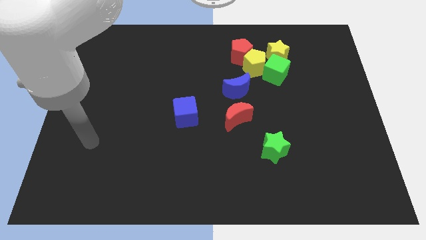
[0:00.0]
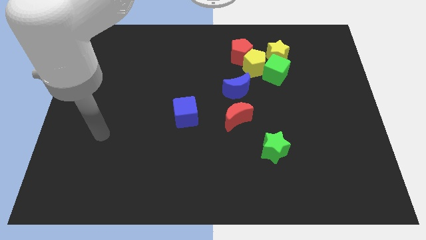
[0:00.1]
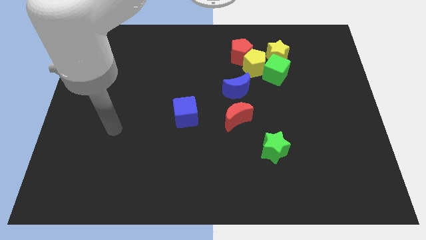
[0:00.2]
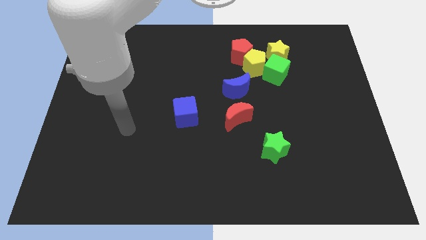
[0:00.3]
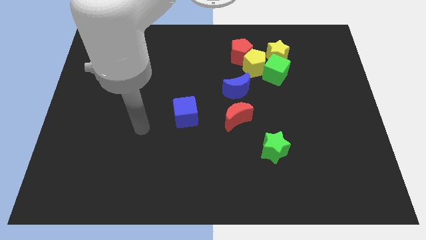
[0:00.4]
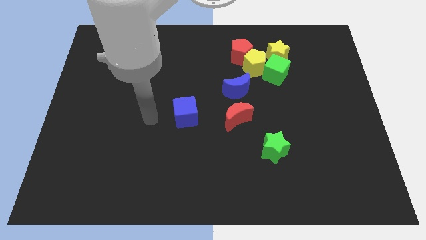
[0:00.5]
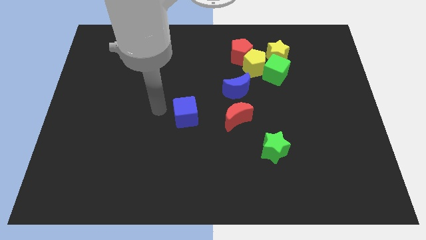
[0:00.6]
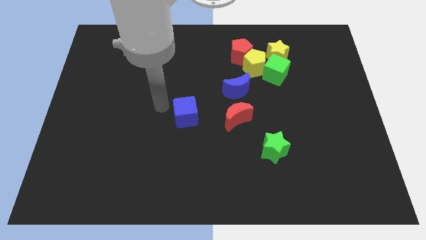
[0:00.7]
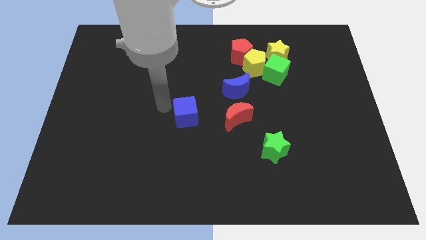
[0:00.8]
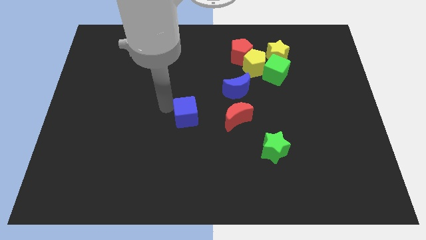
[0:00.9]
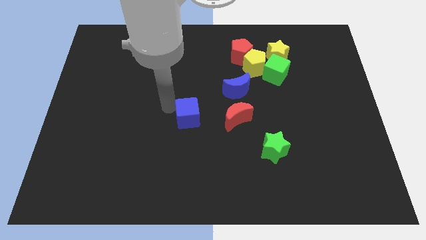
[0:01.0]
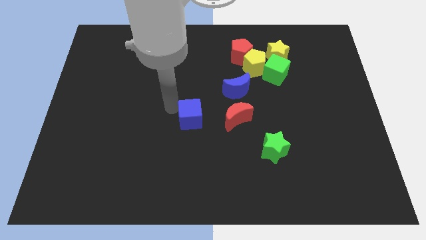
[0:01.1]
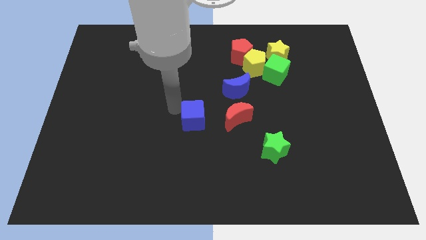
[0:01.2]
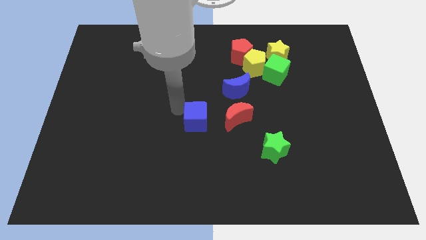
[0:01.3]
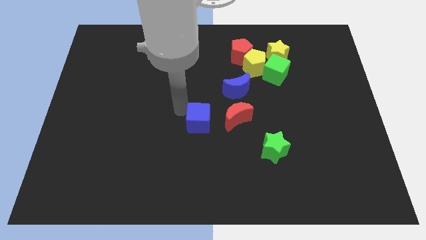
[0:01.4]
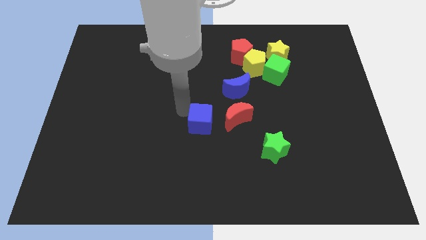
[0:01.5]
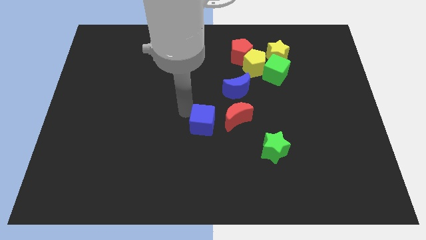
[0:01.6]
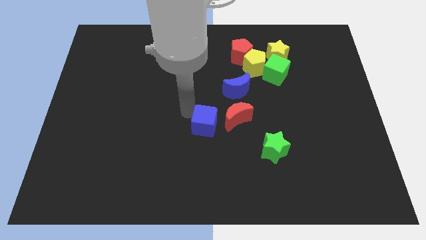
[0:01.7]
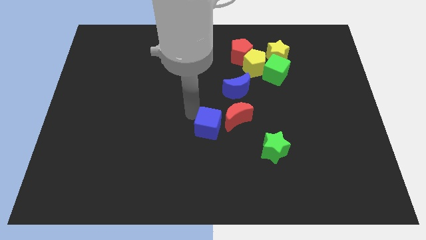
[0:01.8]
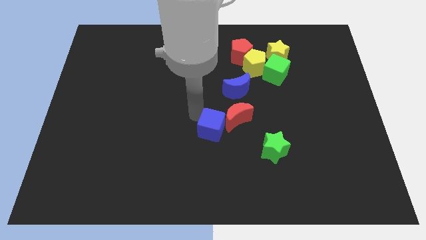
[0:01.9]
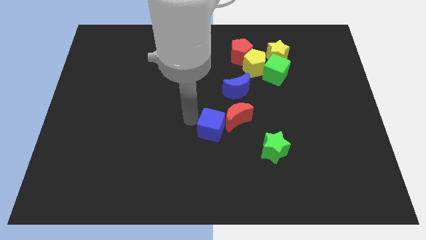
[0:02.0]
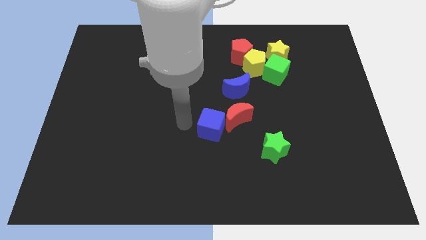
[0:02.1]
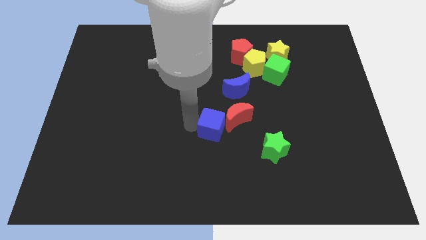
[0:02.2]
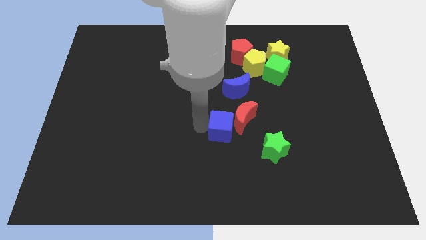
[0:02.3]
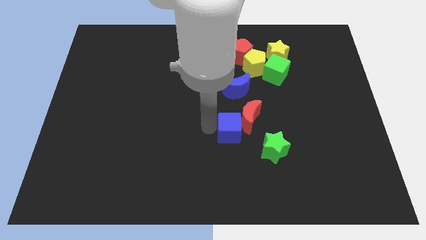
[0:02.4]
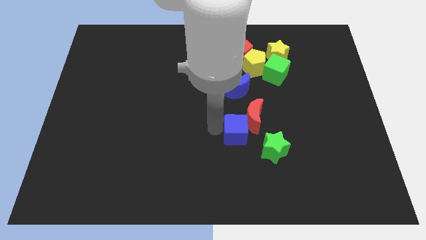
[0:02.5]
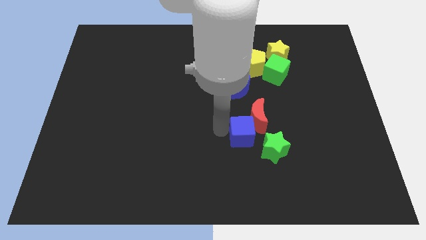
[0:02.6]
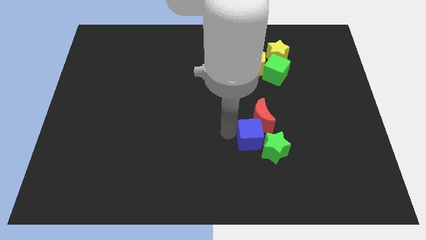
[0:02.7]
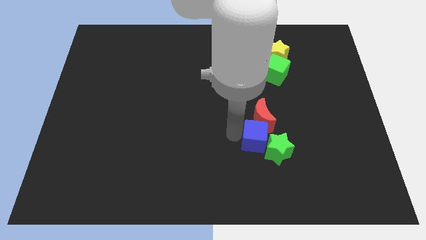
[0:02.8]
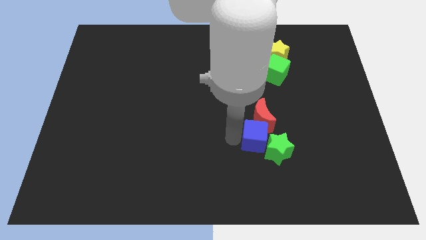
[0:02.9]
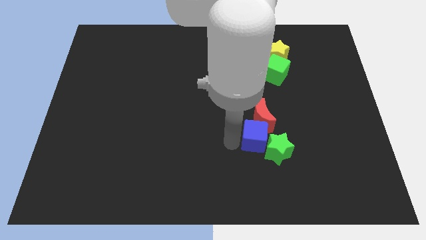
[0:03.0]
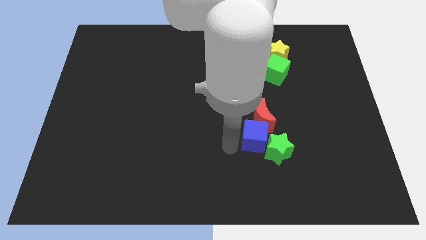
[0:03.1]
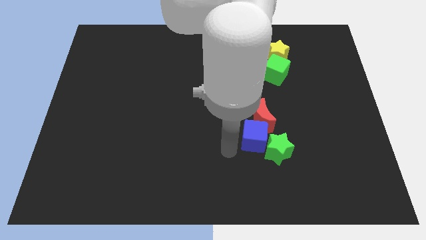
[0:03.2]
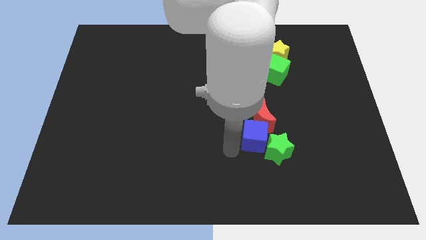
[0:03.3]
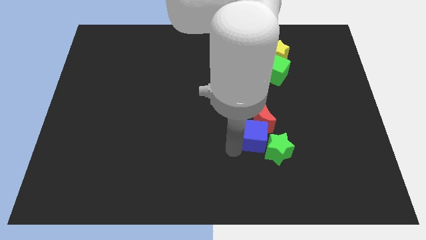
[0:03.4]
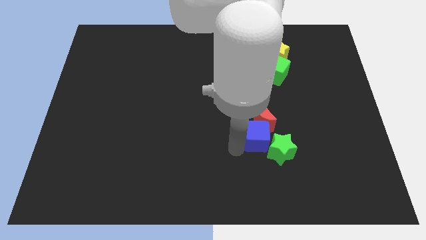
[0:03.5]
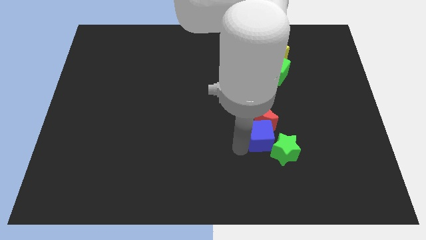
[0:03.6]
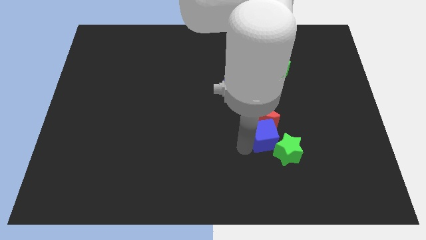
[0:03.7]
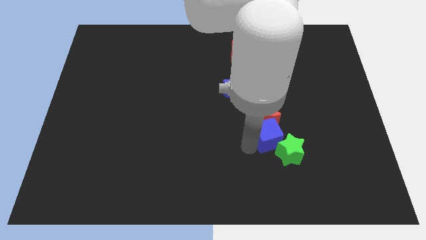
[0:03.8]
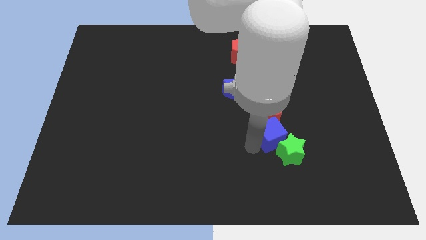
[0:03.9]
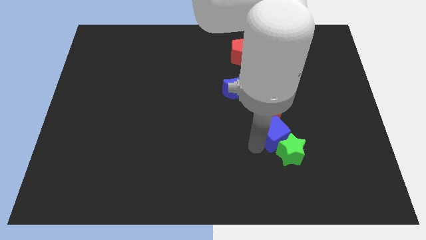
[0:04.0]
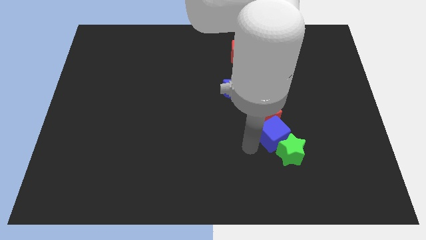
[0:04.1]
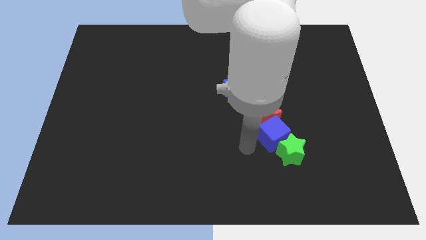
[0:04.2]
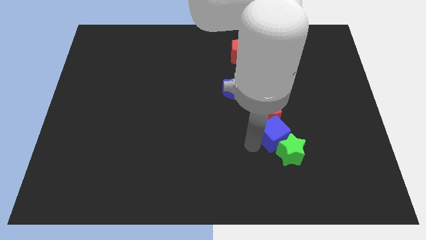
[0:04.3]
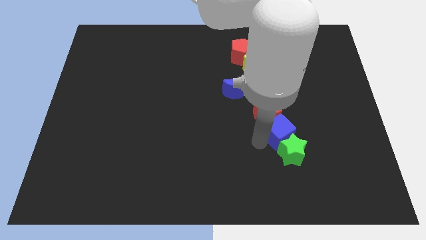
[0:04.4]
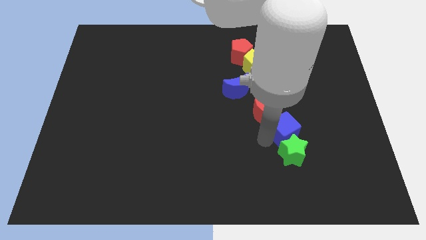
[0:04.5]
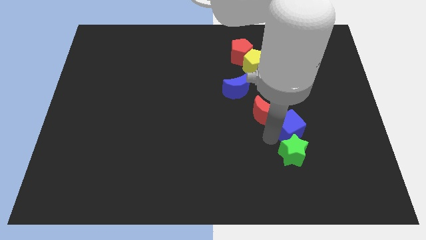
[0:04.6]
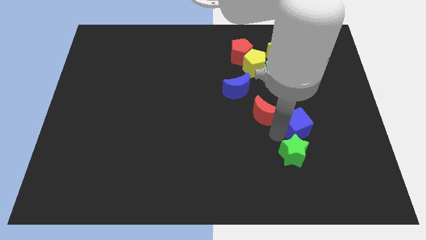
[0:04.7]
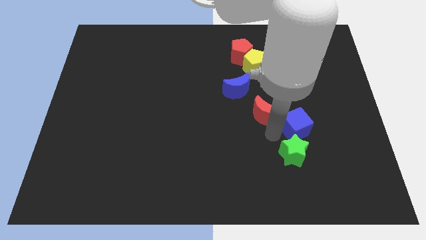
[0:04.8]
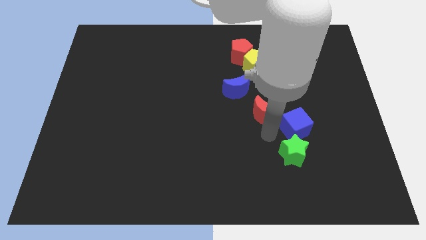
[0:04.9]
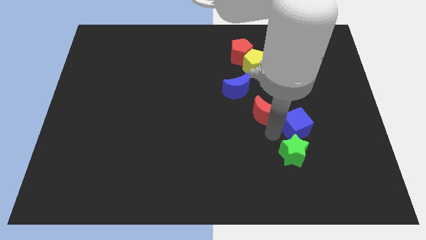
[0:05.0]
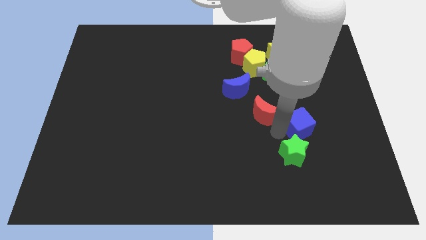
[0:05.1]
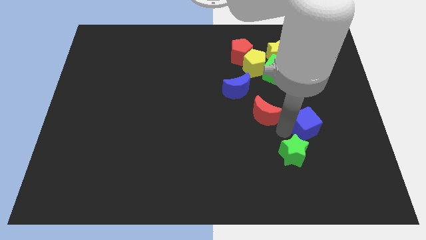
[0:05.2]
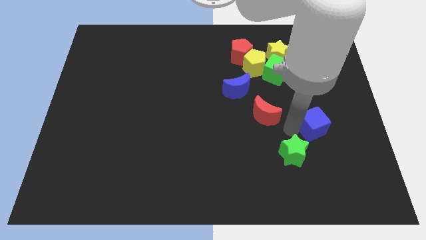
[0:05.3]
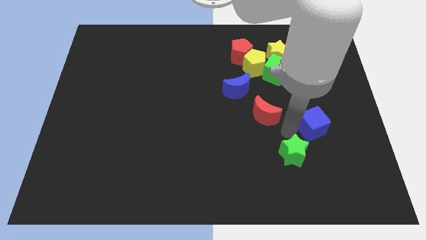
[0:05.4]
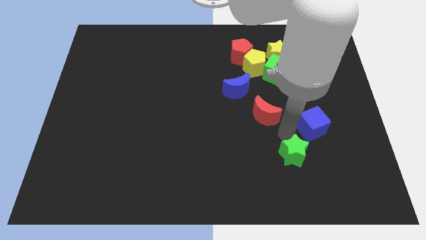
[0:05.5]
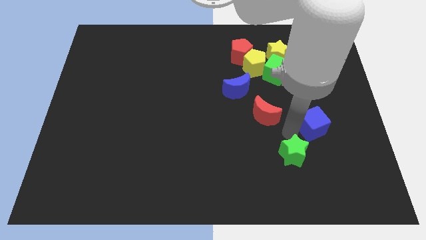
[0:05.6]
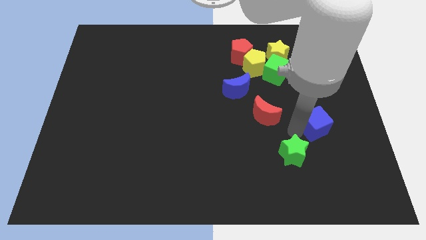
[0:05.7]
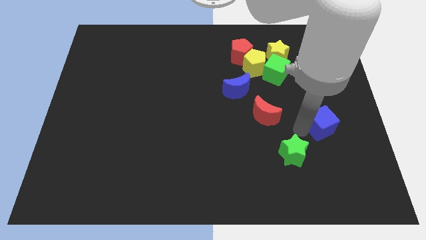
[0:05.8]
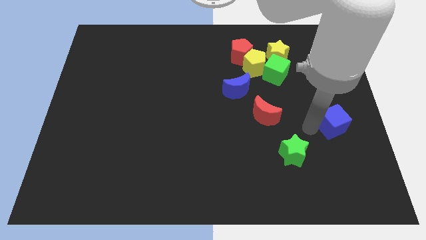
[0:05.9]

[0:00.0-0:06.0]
put the blue cube to the center right
